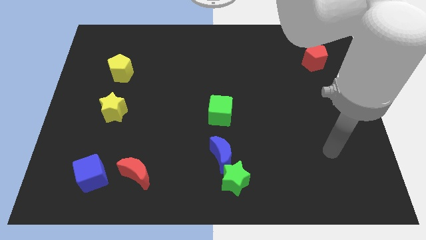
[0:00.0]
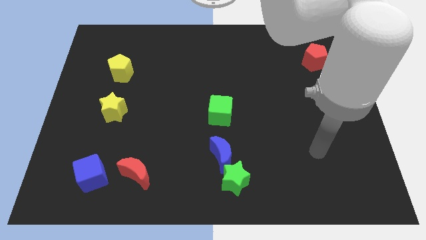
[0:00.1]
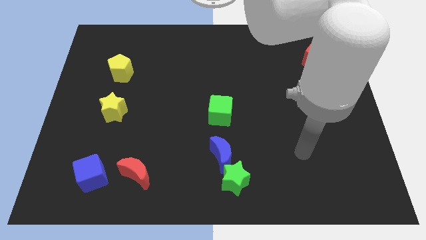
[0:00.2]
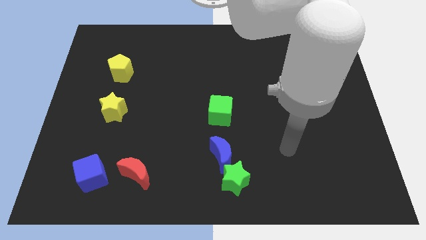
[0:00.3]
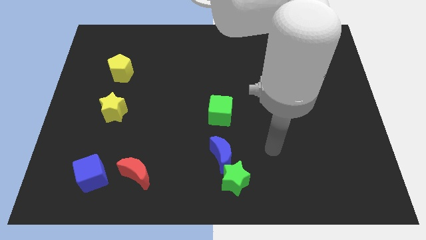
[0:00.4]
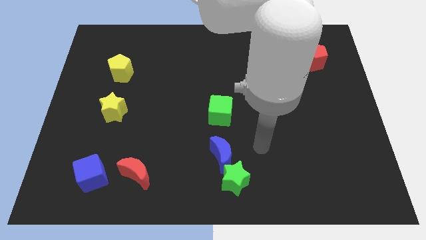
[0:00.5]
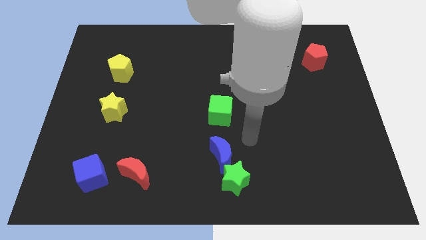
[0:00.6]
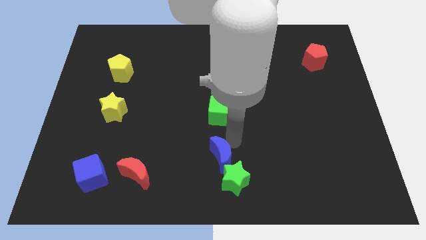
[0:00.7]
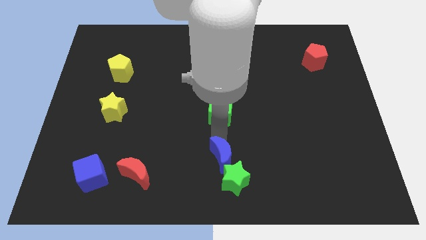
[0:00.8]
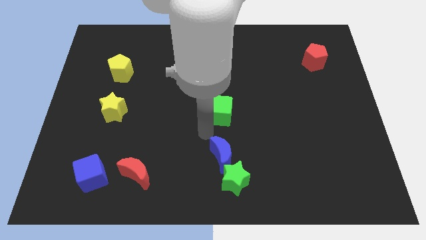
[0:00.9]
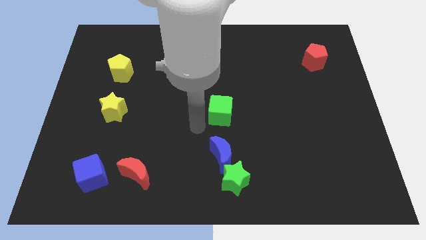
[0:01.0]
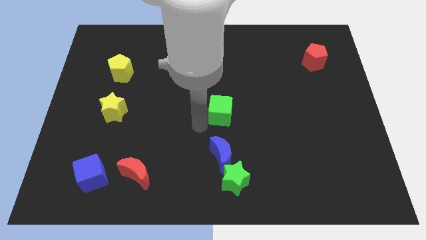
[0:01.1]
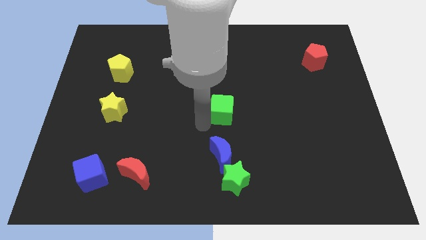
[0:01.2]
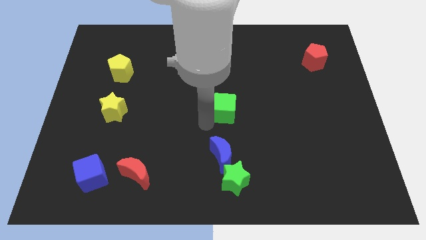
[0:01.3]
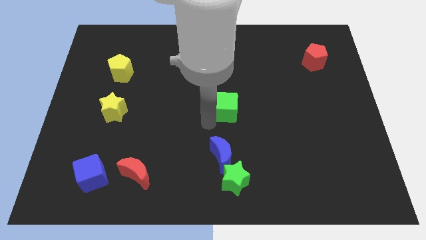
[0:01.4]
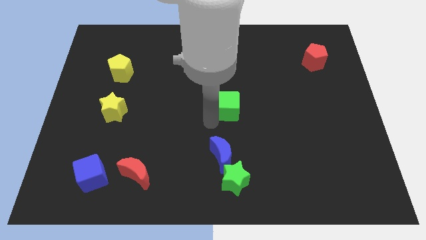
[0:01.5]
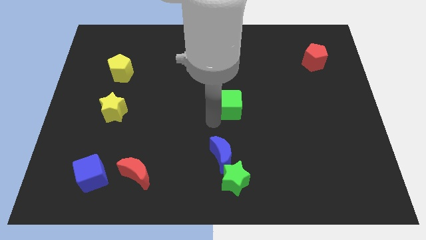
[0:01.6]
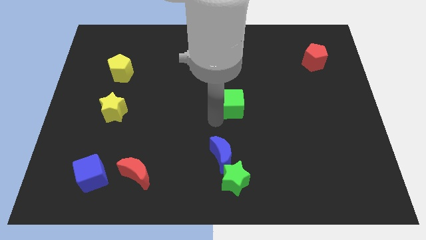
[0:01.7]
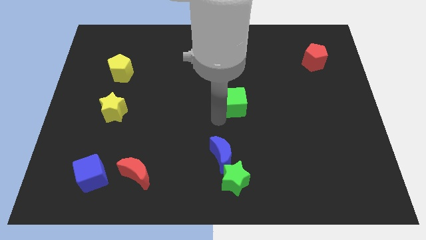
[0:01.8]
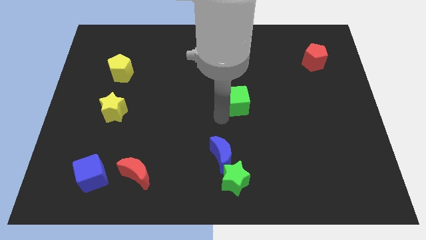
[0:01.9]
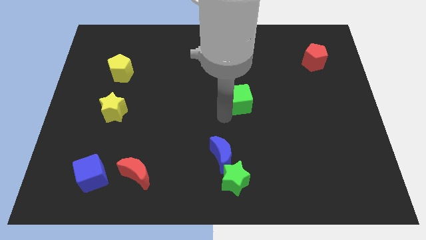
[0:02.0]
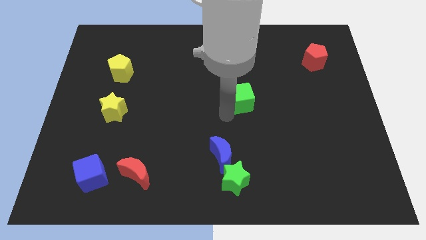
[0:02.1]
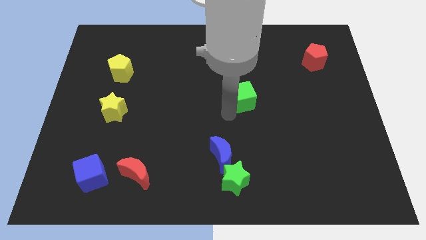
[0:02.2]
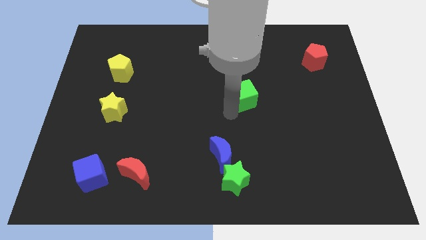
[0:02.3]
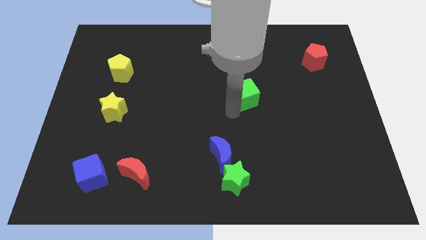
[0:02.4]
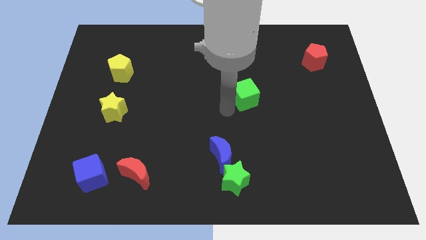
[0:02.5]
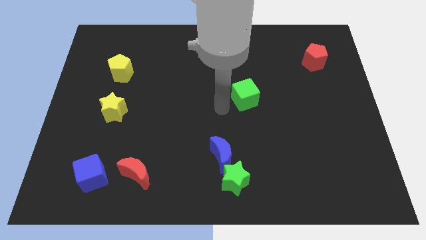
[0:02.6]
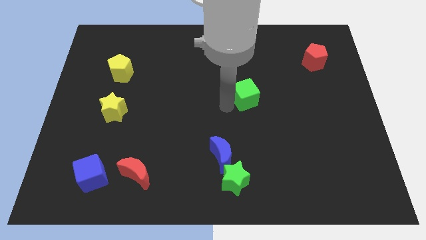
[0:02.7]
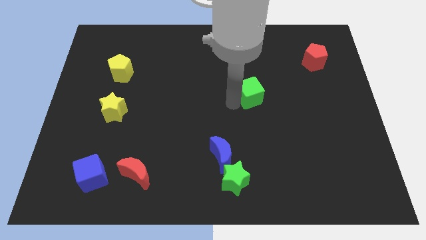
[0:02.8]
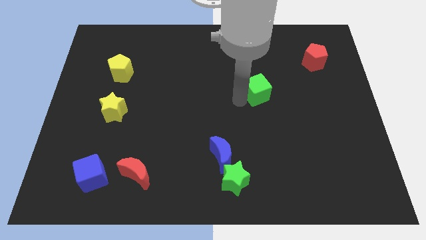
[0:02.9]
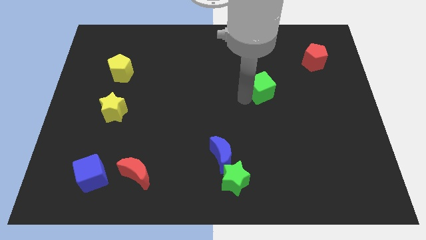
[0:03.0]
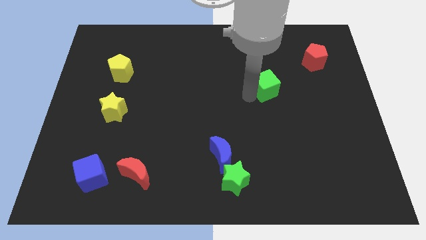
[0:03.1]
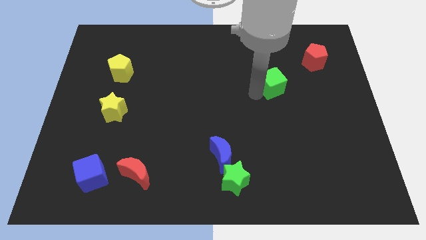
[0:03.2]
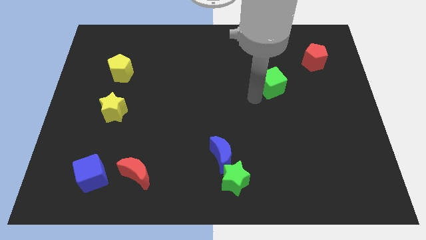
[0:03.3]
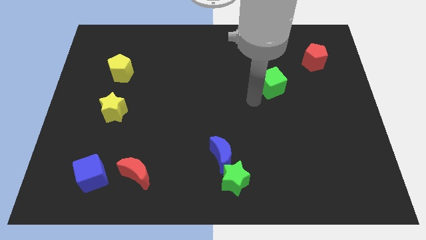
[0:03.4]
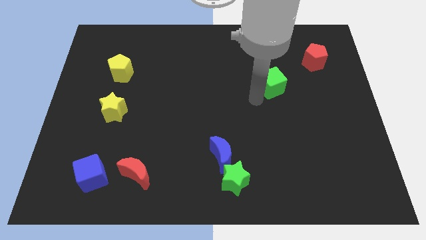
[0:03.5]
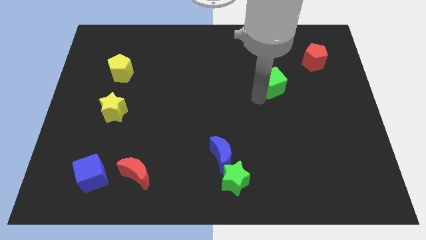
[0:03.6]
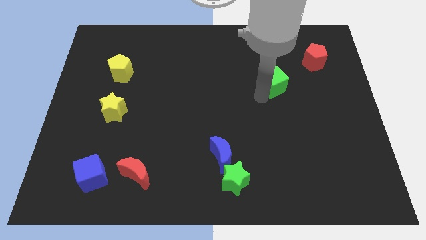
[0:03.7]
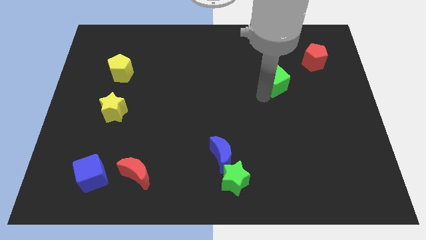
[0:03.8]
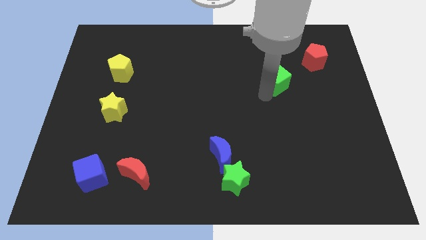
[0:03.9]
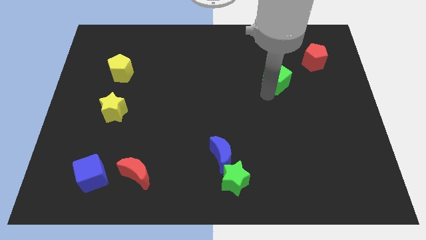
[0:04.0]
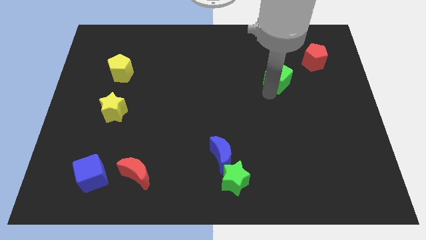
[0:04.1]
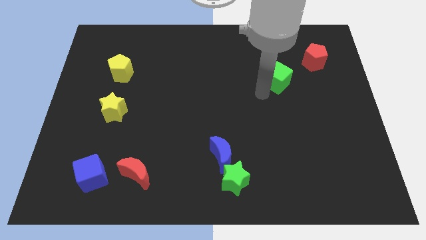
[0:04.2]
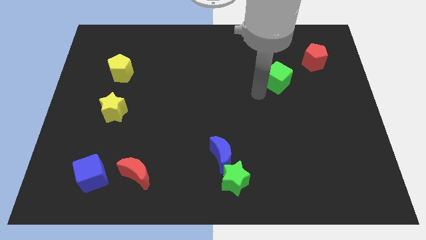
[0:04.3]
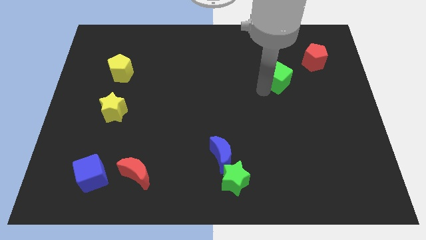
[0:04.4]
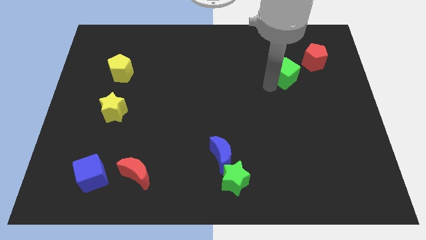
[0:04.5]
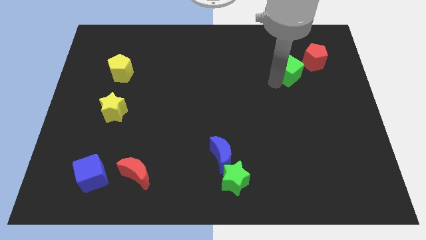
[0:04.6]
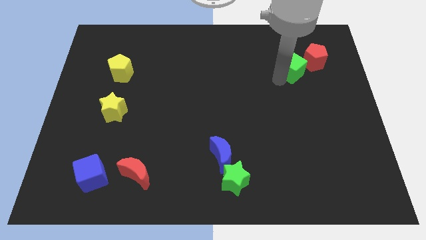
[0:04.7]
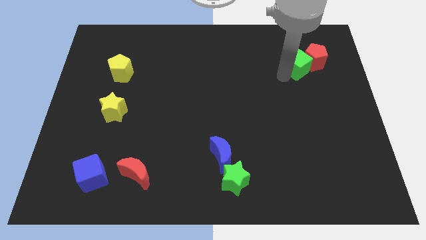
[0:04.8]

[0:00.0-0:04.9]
move the green cube next to the red pentagon

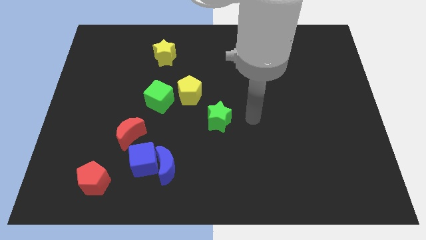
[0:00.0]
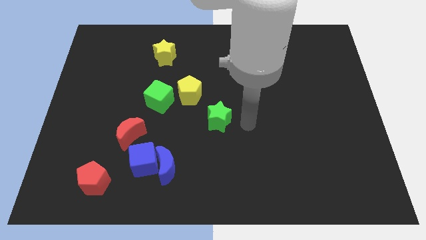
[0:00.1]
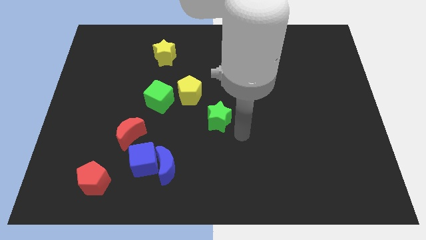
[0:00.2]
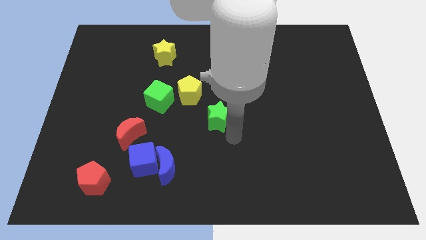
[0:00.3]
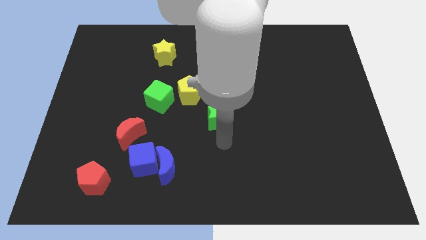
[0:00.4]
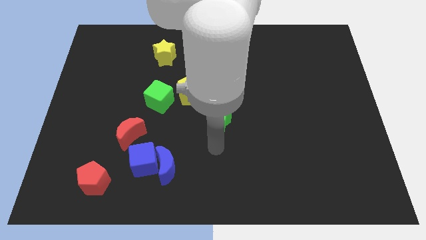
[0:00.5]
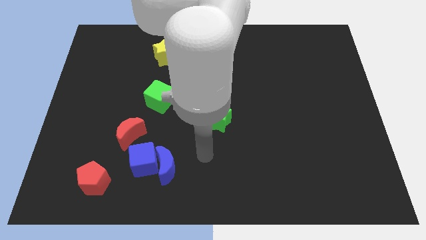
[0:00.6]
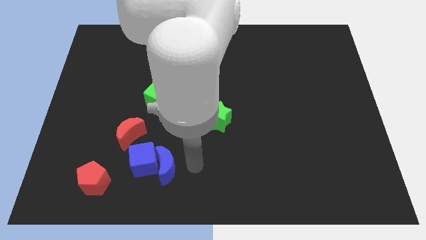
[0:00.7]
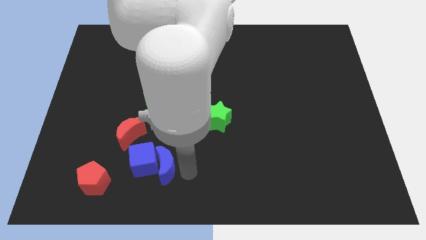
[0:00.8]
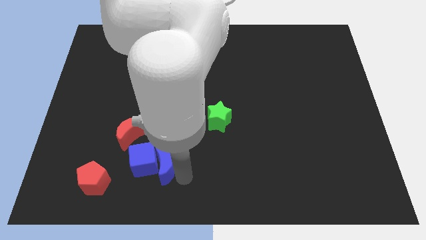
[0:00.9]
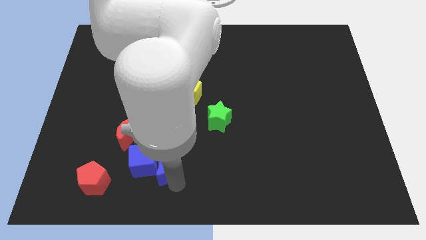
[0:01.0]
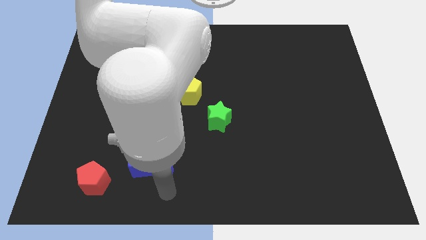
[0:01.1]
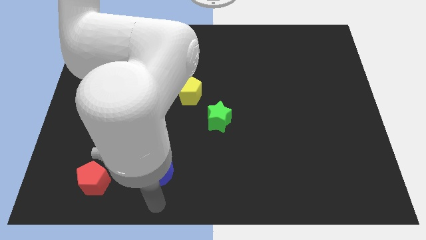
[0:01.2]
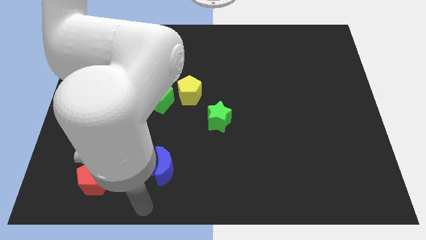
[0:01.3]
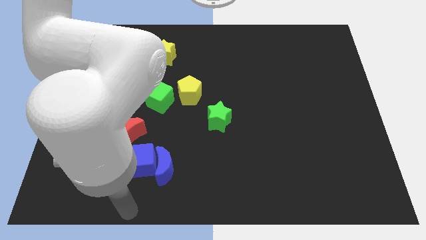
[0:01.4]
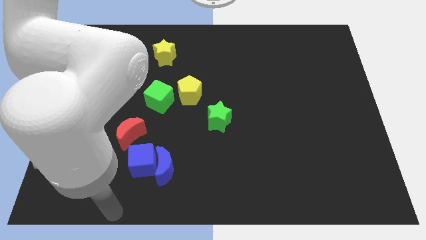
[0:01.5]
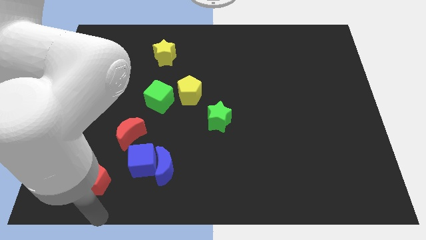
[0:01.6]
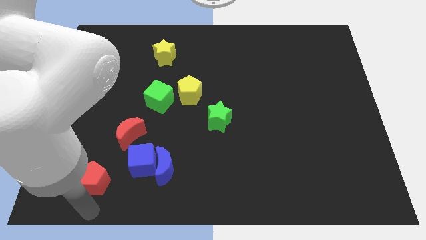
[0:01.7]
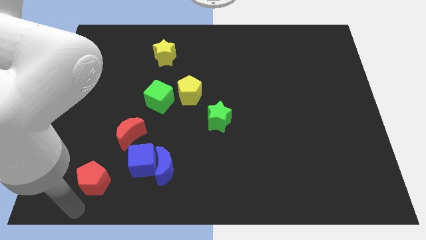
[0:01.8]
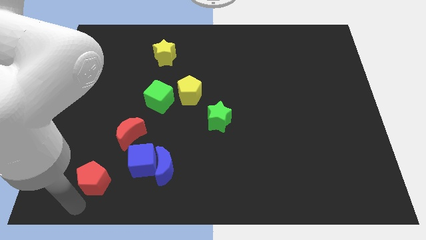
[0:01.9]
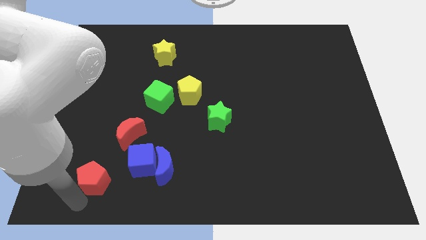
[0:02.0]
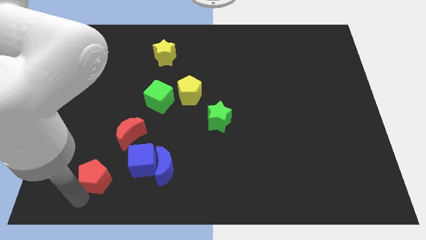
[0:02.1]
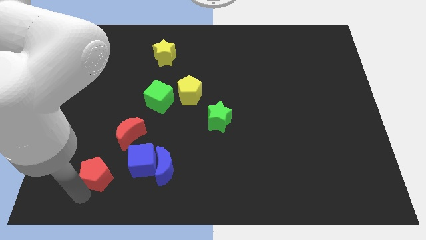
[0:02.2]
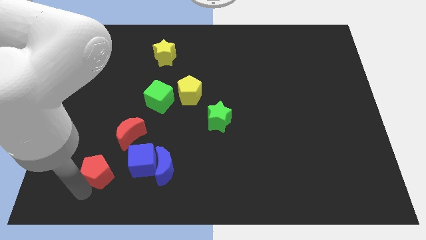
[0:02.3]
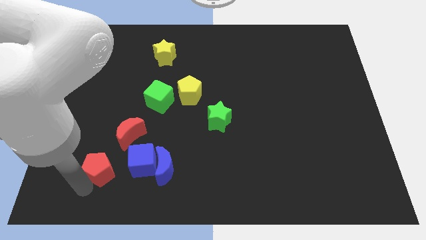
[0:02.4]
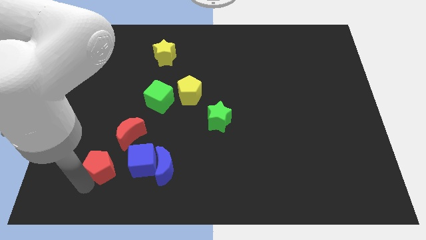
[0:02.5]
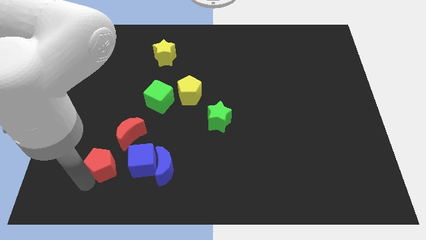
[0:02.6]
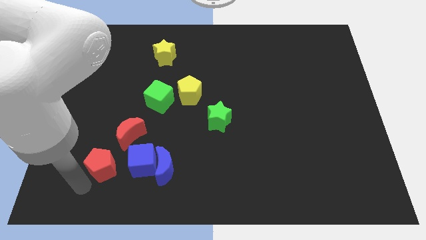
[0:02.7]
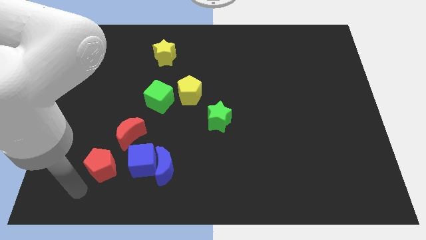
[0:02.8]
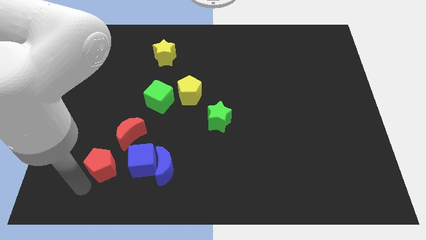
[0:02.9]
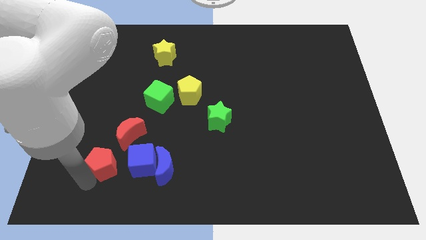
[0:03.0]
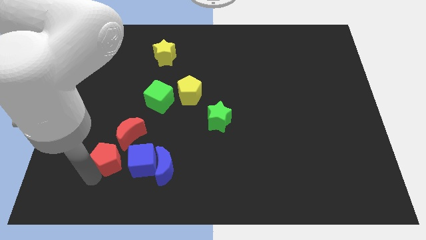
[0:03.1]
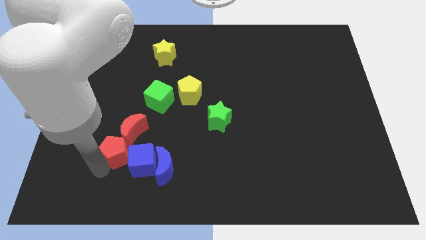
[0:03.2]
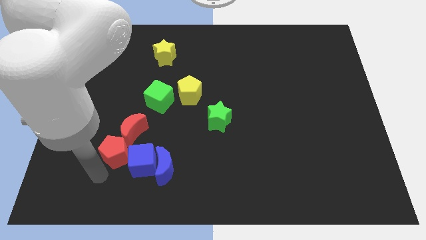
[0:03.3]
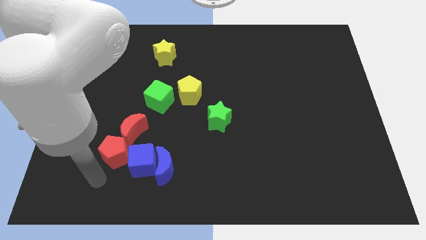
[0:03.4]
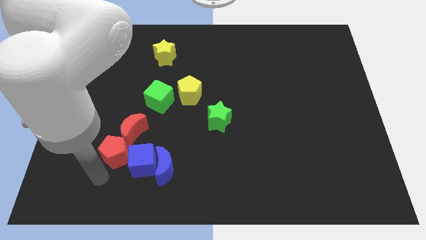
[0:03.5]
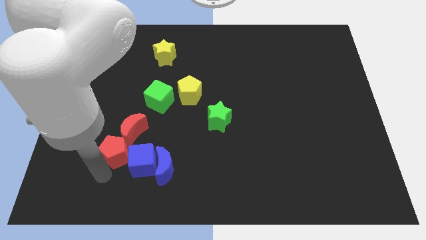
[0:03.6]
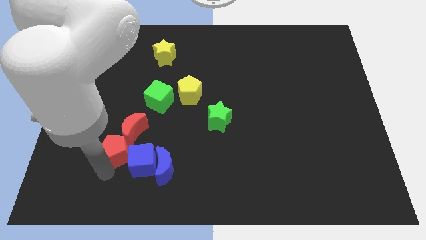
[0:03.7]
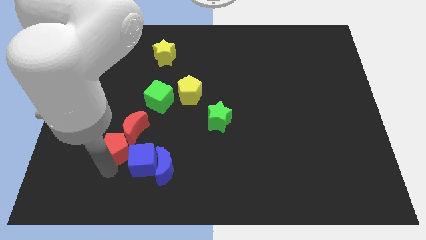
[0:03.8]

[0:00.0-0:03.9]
put the red pentagon towards the red moon
